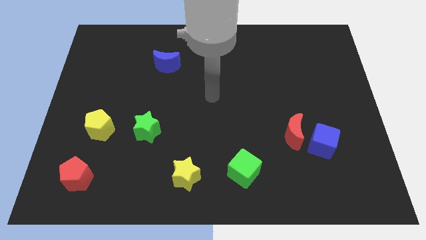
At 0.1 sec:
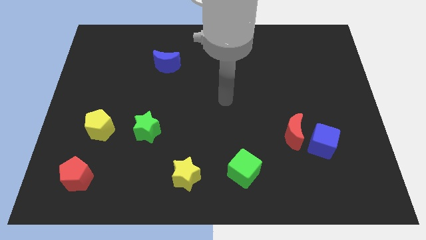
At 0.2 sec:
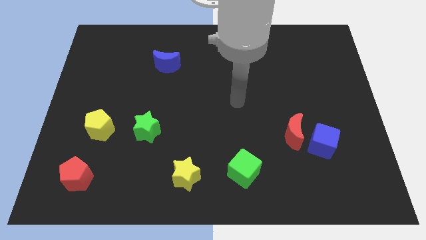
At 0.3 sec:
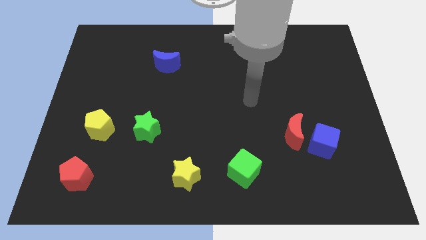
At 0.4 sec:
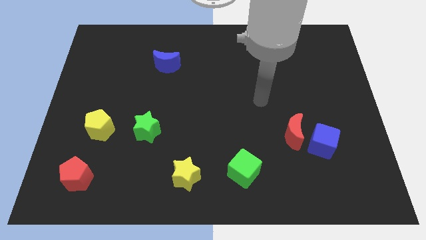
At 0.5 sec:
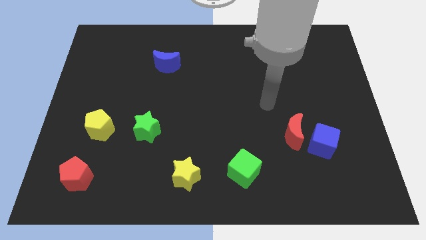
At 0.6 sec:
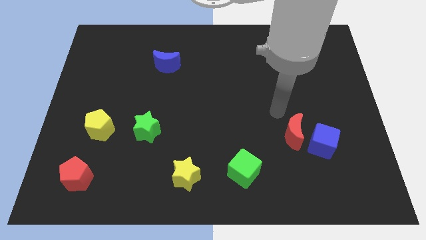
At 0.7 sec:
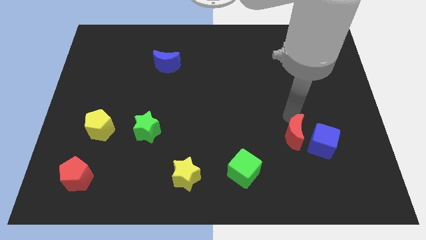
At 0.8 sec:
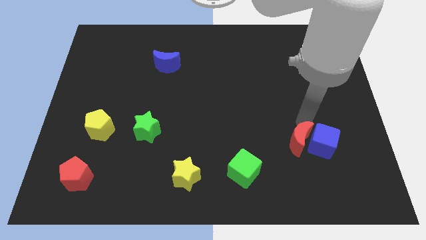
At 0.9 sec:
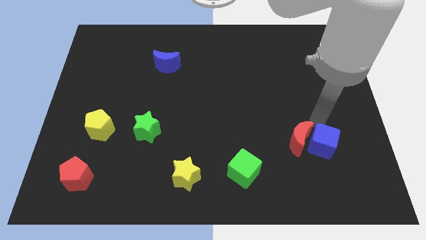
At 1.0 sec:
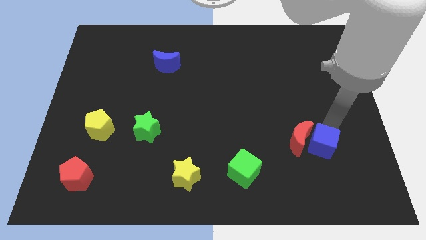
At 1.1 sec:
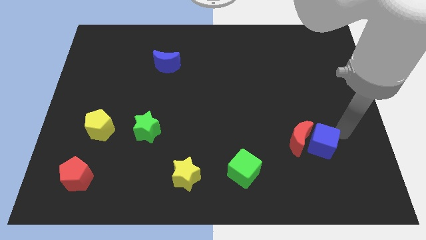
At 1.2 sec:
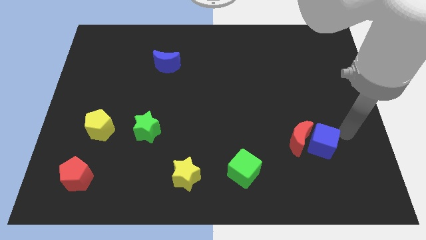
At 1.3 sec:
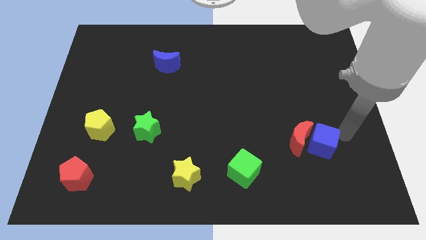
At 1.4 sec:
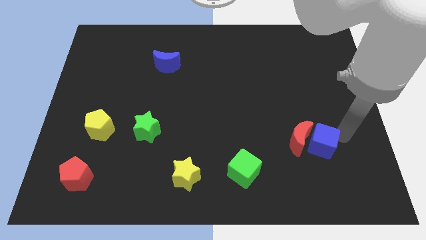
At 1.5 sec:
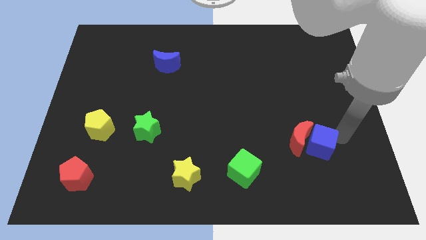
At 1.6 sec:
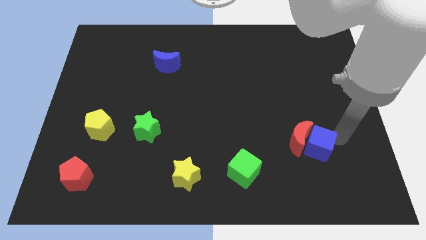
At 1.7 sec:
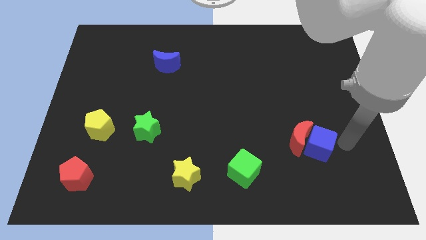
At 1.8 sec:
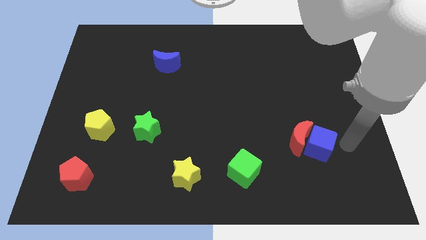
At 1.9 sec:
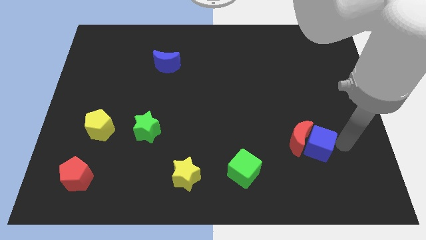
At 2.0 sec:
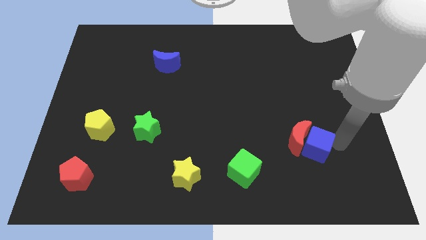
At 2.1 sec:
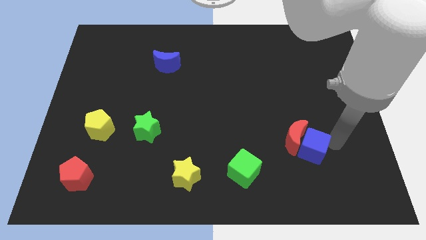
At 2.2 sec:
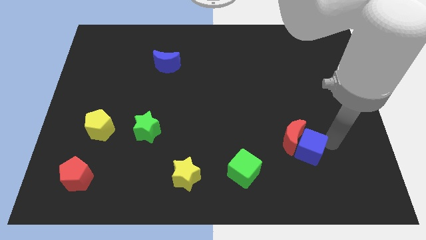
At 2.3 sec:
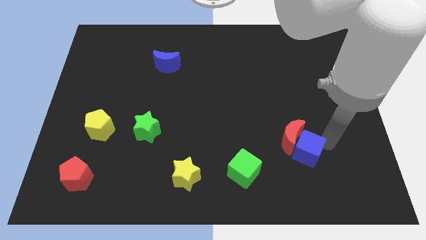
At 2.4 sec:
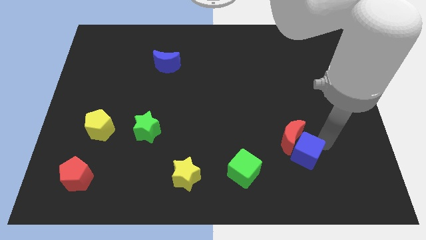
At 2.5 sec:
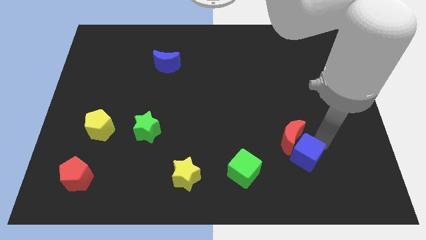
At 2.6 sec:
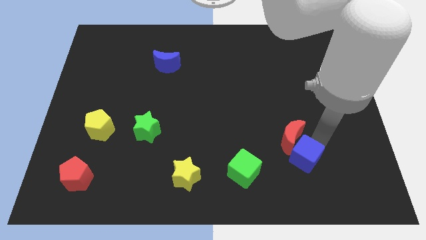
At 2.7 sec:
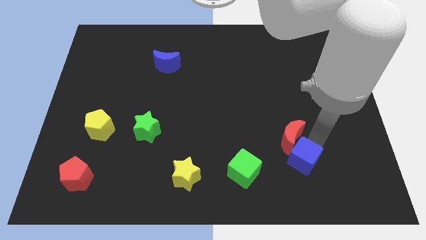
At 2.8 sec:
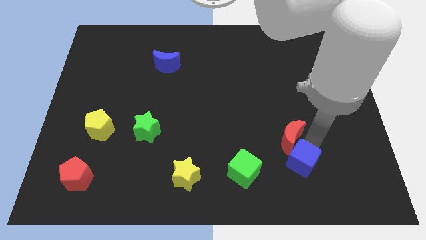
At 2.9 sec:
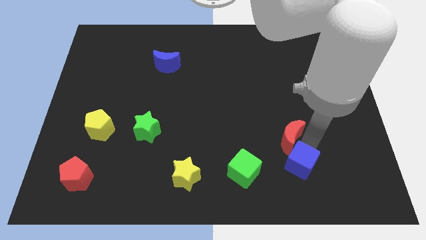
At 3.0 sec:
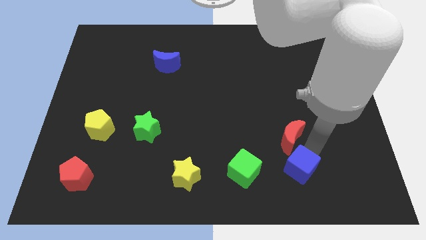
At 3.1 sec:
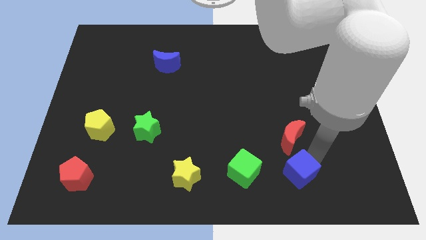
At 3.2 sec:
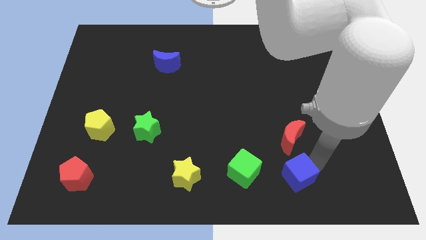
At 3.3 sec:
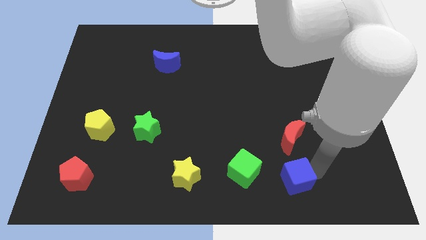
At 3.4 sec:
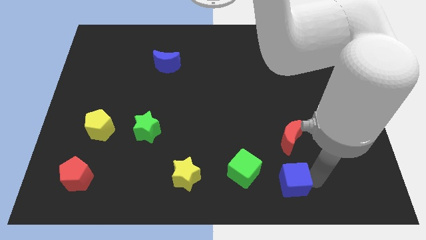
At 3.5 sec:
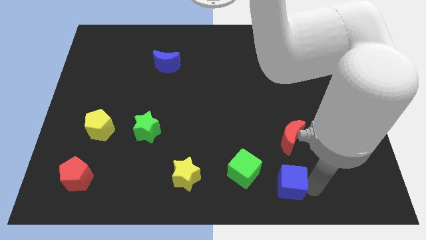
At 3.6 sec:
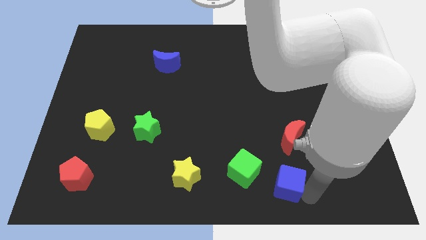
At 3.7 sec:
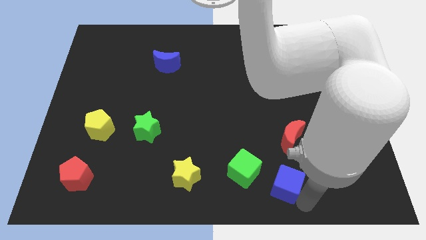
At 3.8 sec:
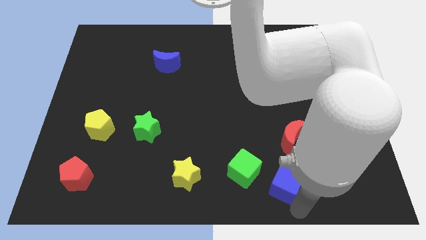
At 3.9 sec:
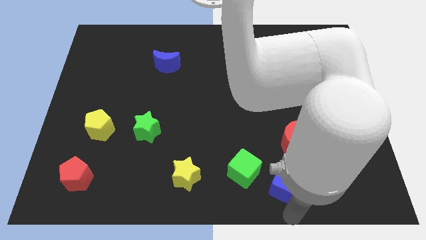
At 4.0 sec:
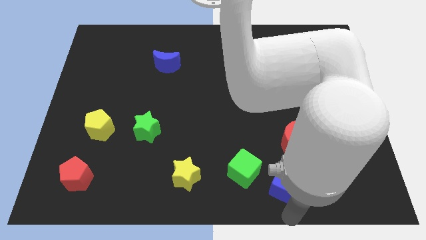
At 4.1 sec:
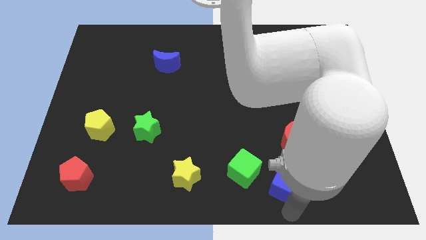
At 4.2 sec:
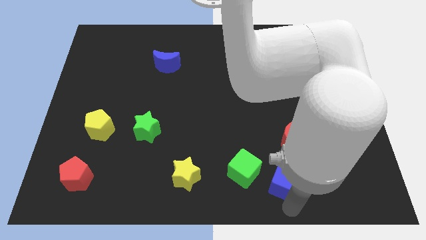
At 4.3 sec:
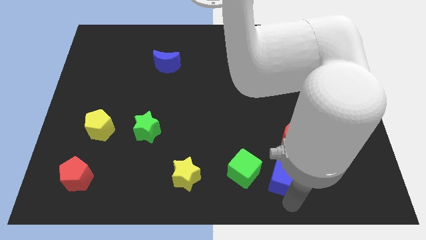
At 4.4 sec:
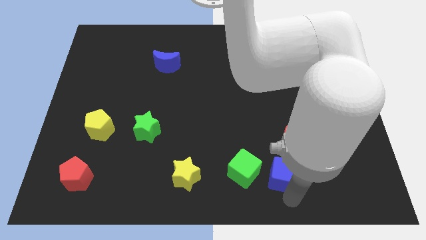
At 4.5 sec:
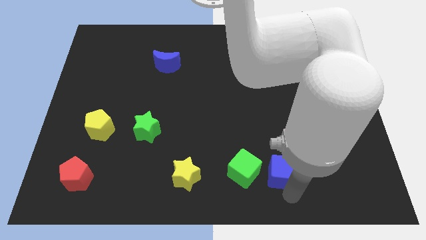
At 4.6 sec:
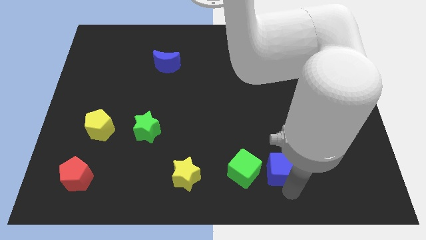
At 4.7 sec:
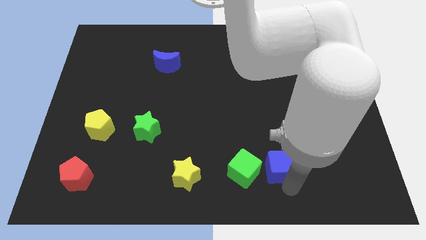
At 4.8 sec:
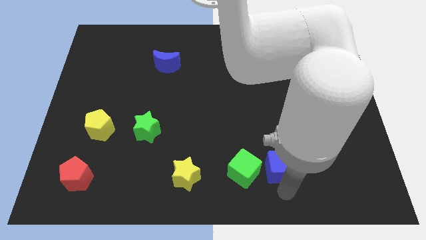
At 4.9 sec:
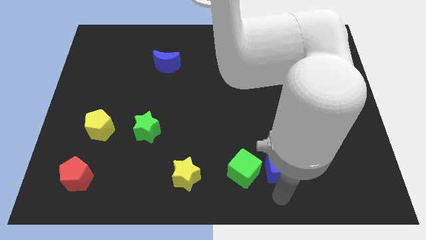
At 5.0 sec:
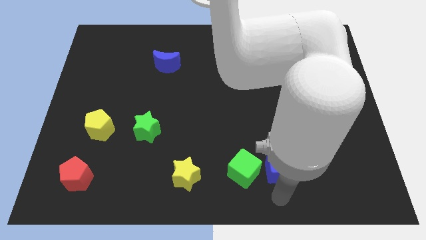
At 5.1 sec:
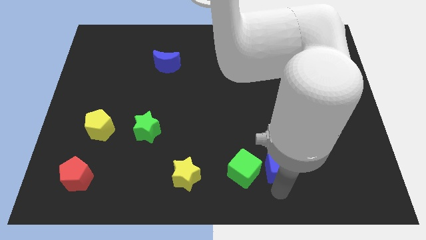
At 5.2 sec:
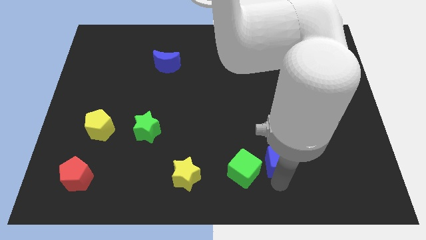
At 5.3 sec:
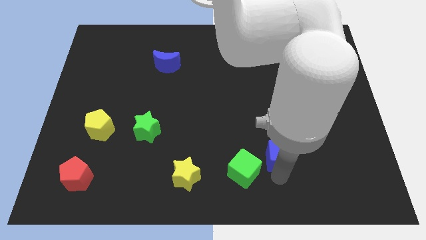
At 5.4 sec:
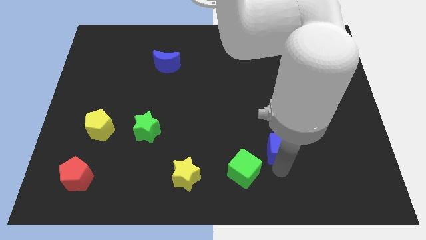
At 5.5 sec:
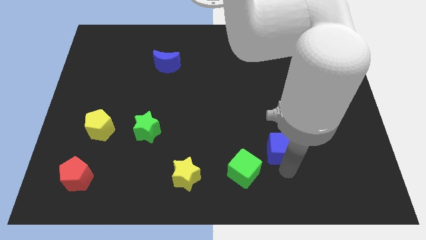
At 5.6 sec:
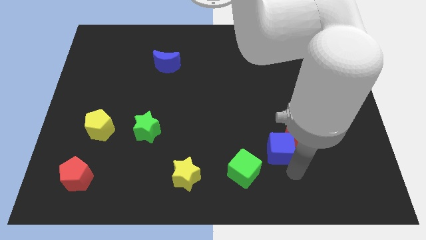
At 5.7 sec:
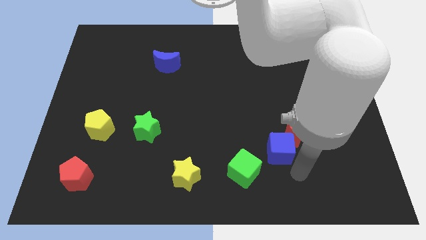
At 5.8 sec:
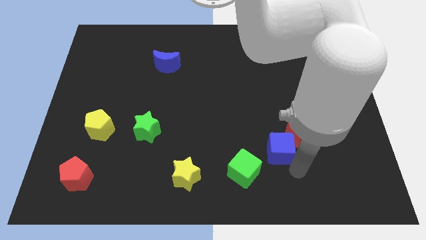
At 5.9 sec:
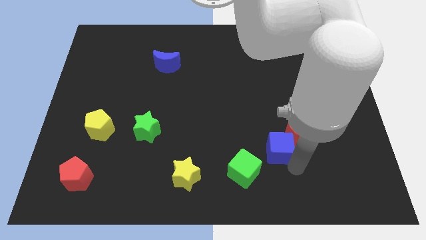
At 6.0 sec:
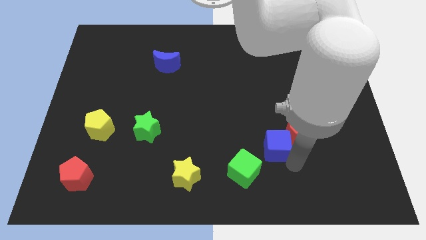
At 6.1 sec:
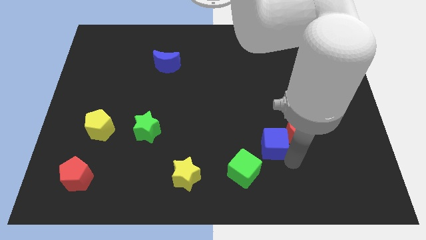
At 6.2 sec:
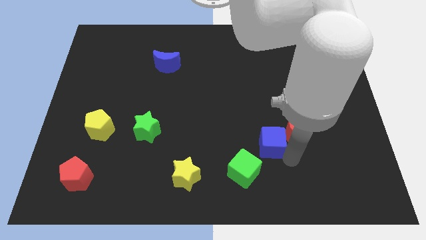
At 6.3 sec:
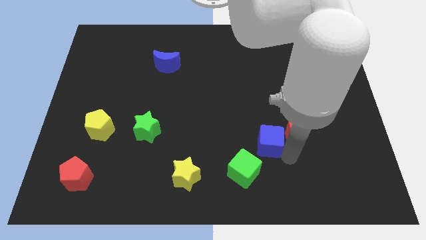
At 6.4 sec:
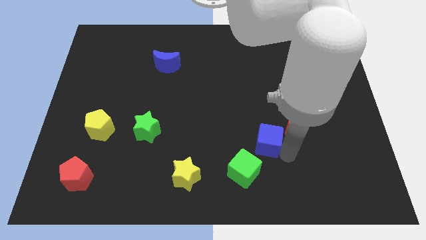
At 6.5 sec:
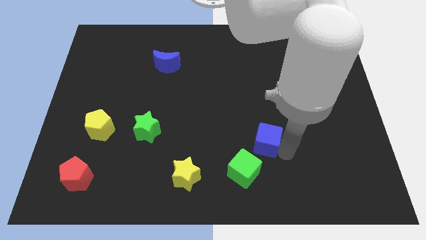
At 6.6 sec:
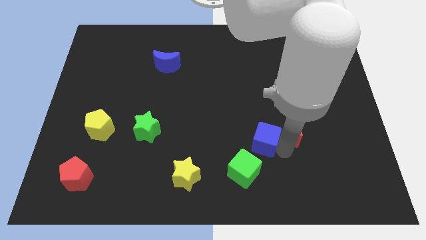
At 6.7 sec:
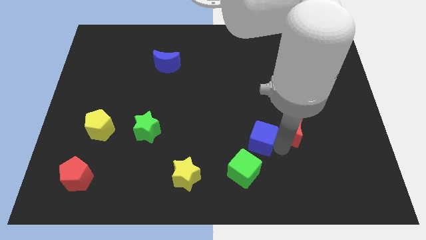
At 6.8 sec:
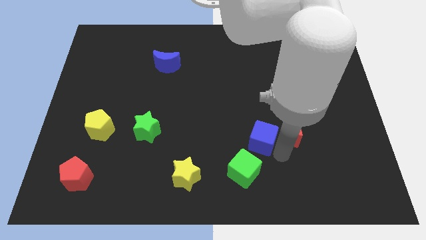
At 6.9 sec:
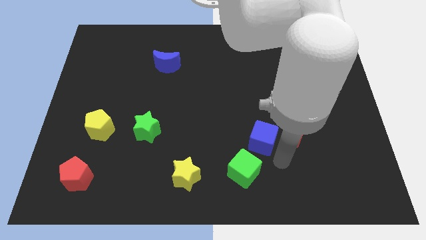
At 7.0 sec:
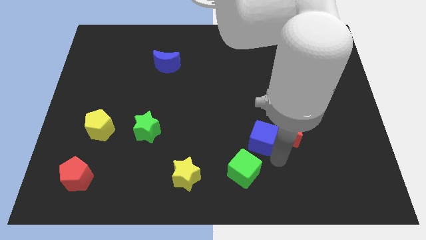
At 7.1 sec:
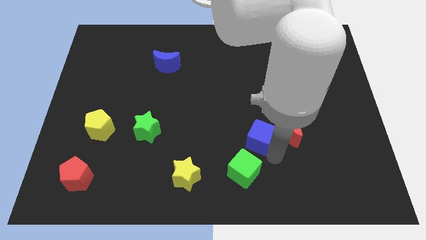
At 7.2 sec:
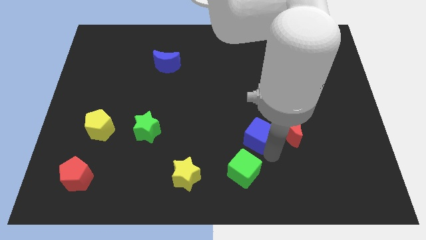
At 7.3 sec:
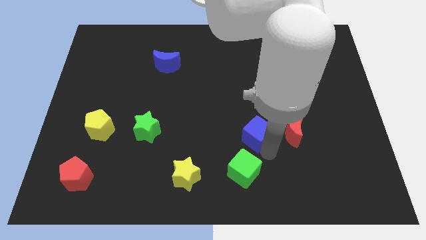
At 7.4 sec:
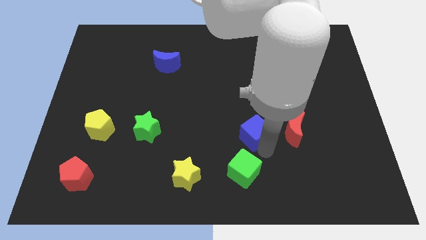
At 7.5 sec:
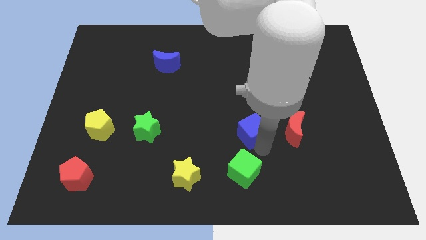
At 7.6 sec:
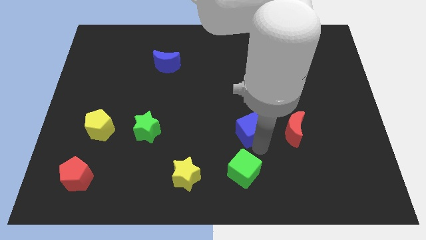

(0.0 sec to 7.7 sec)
slide the blue cube to the center of the board
